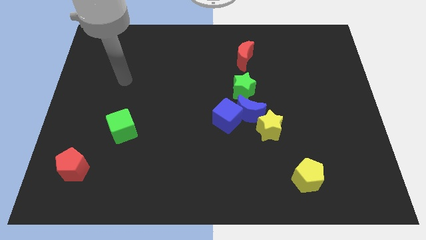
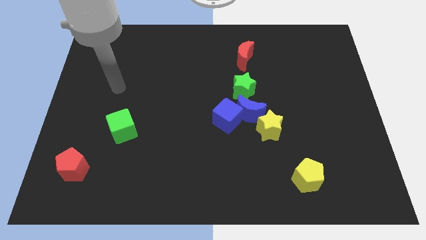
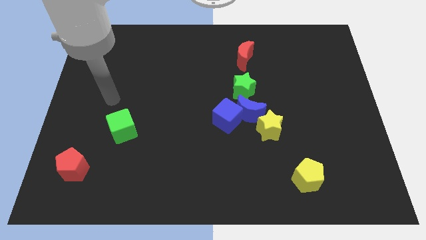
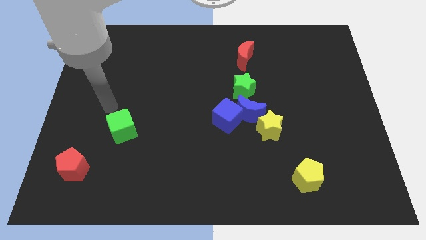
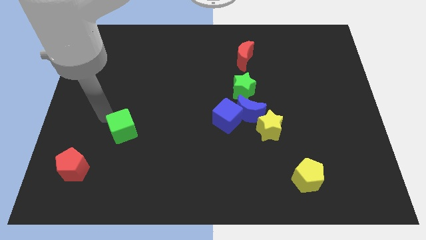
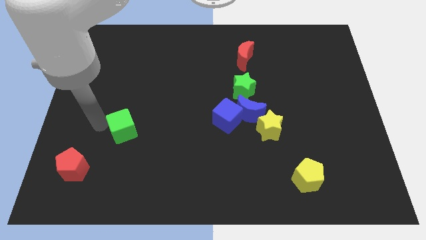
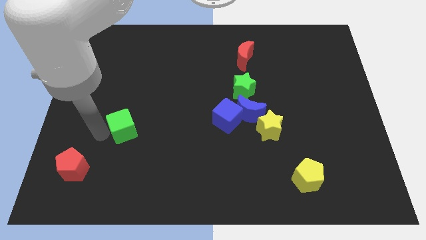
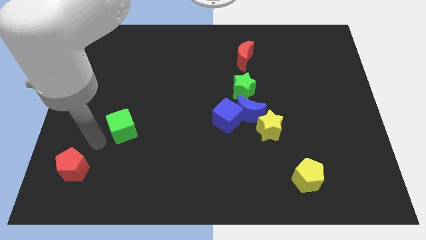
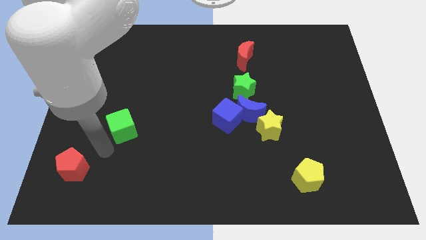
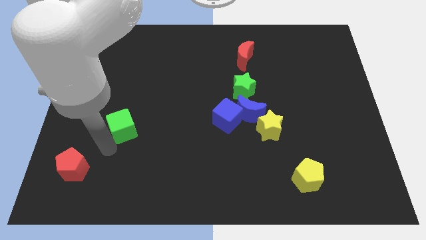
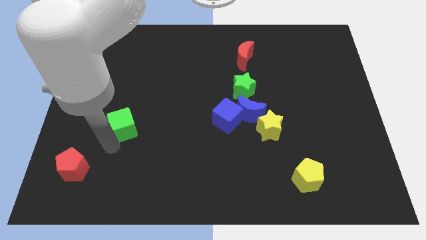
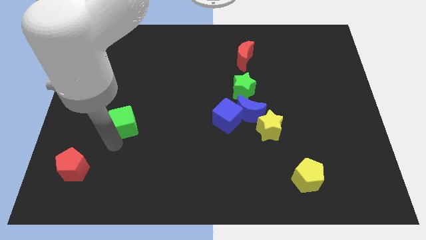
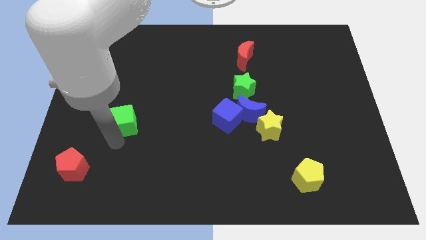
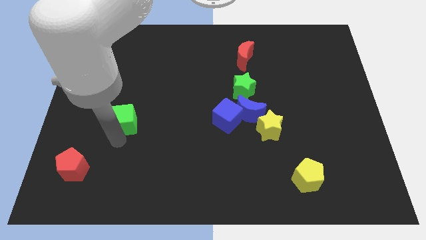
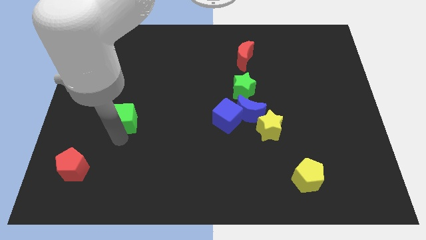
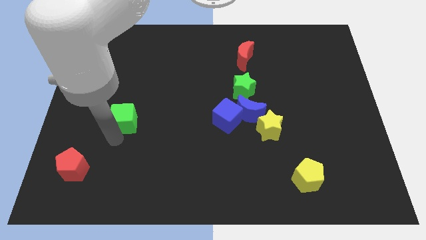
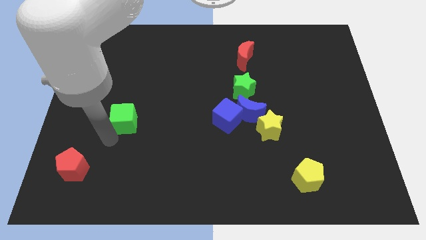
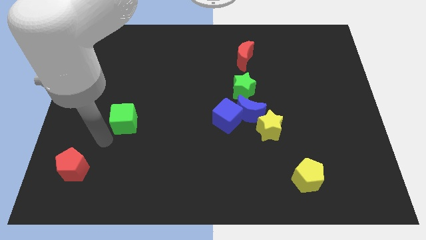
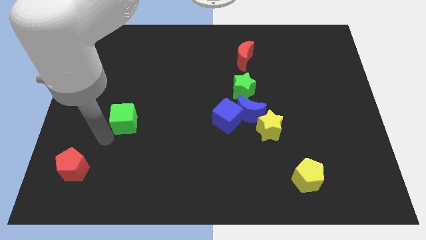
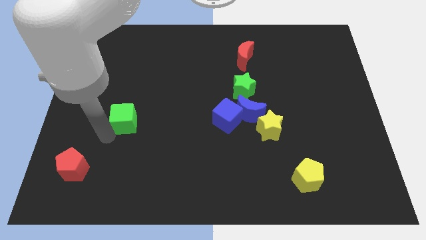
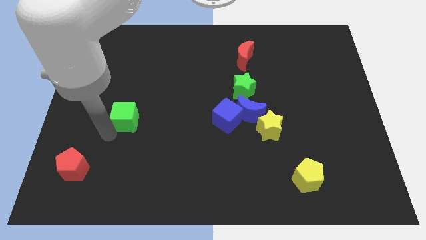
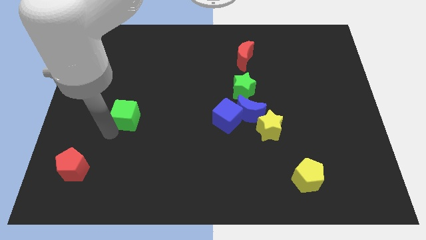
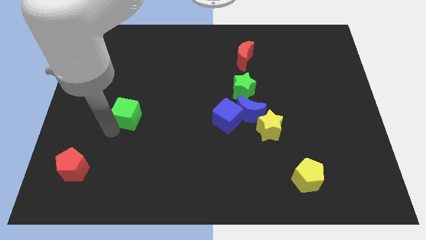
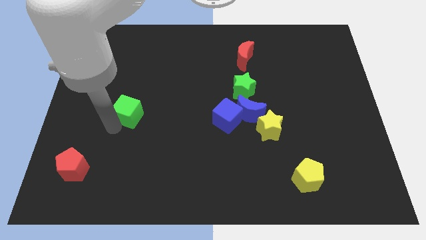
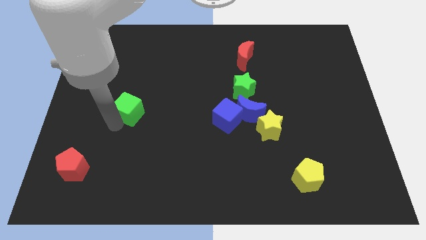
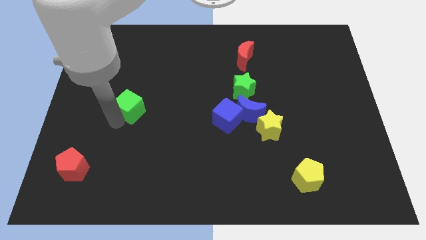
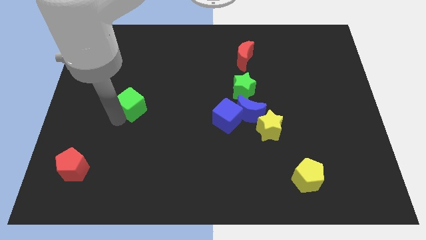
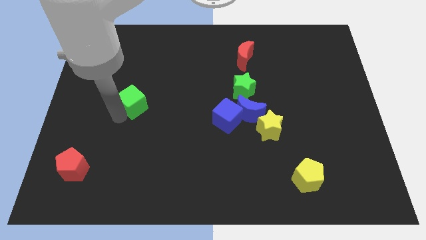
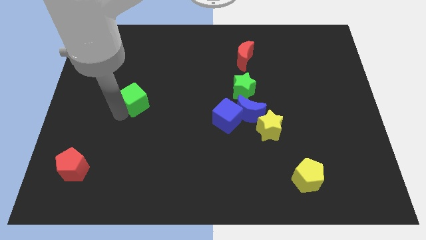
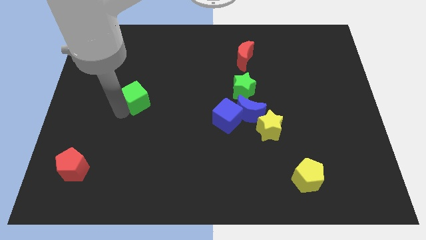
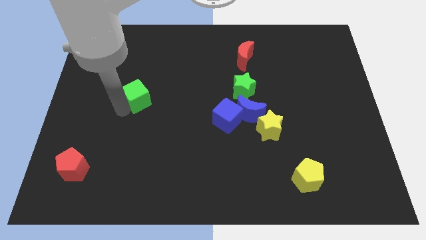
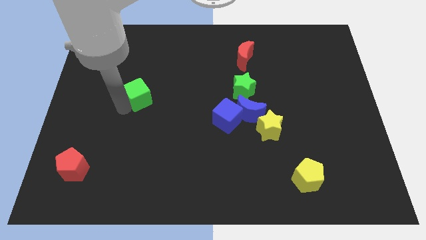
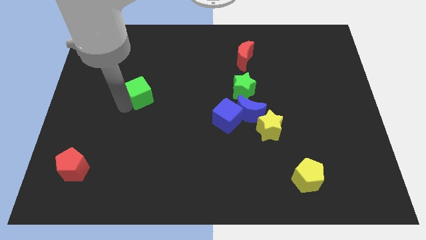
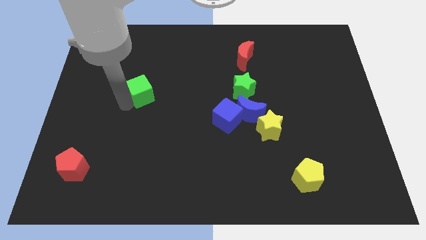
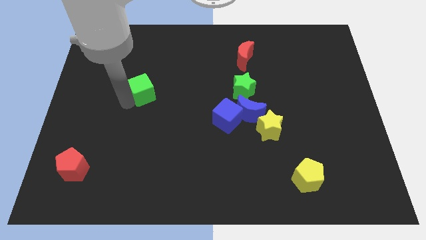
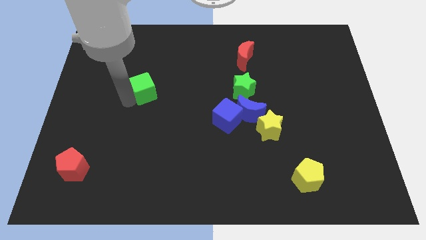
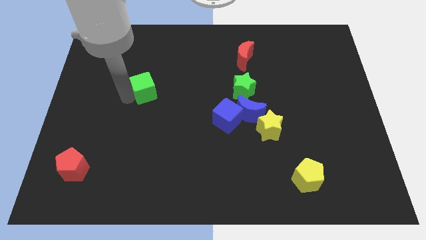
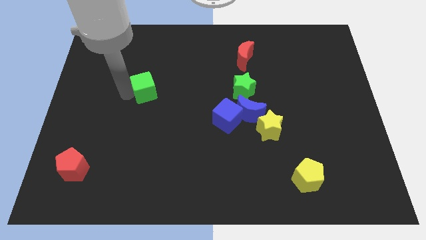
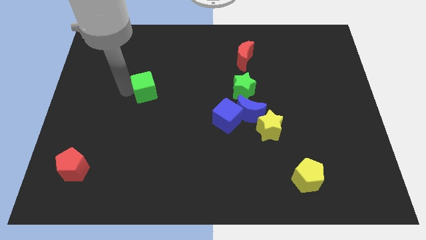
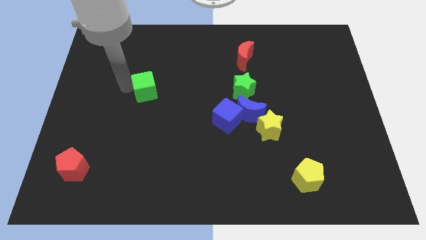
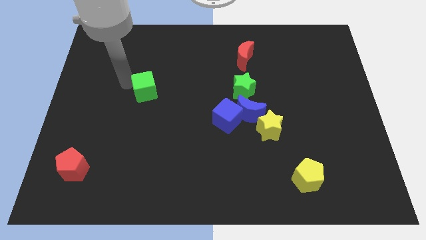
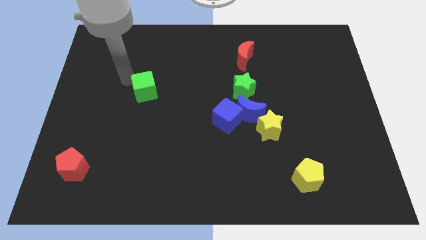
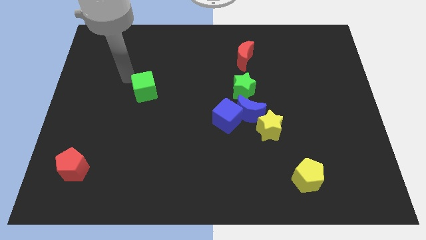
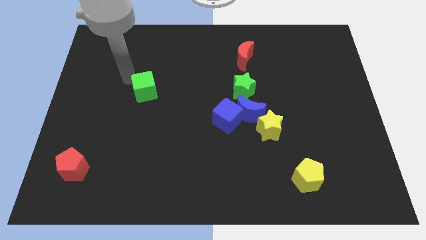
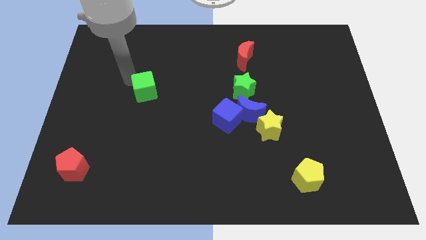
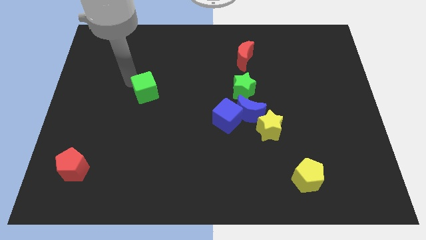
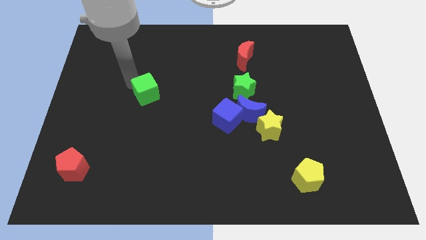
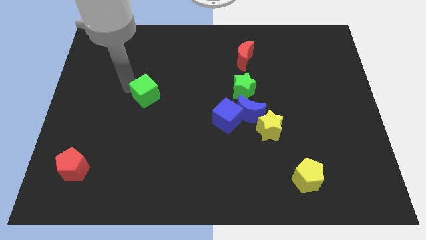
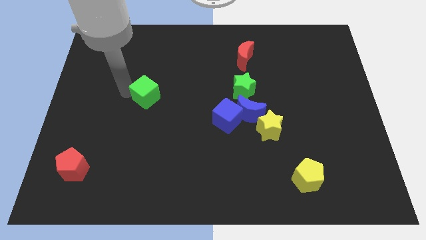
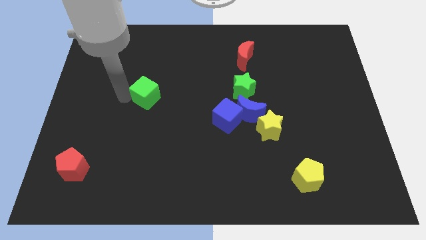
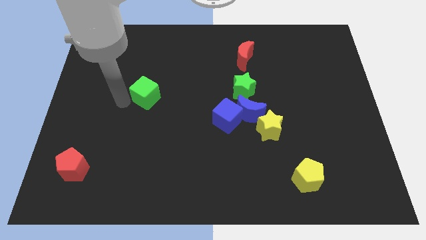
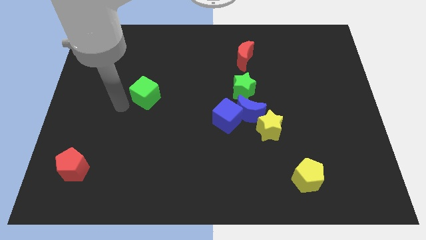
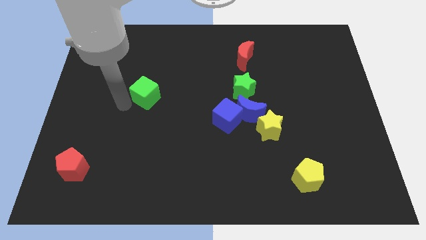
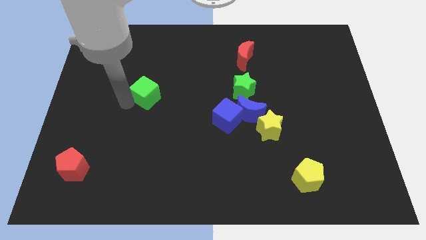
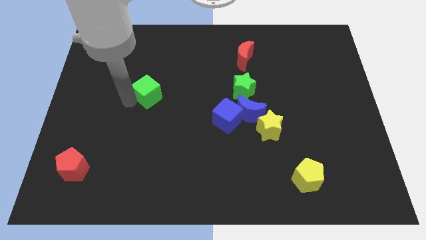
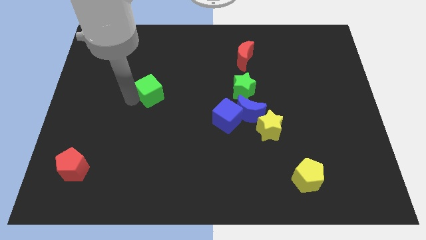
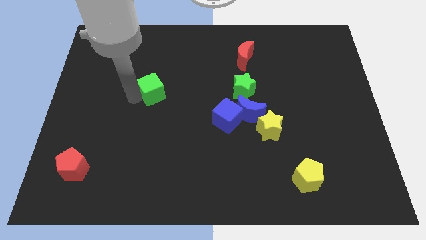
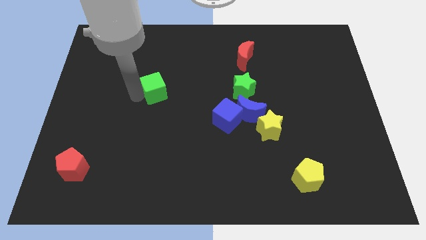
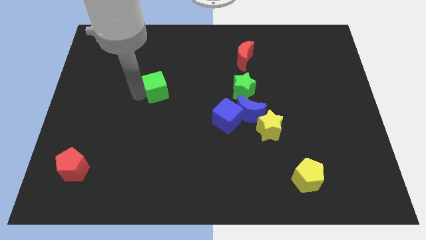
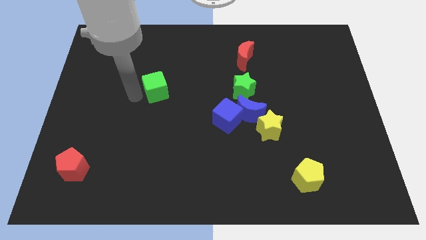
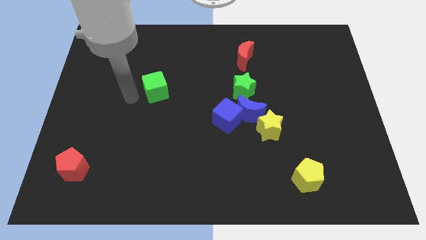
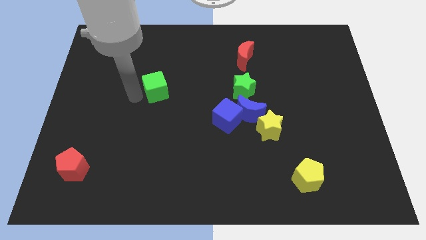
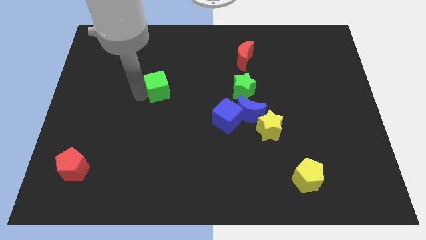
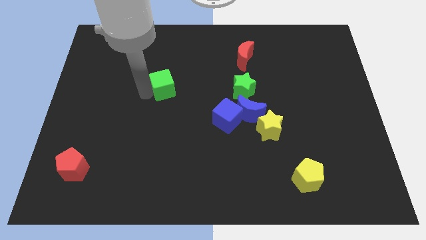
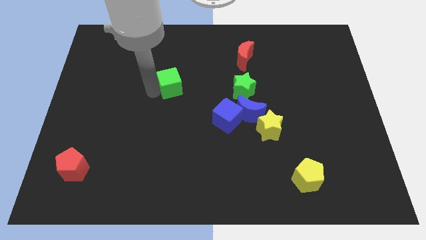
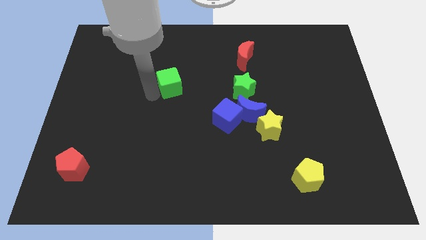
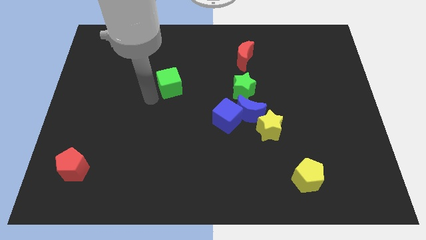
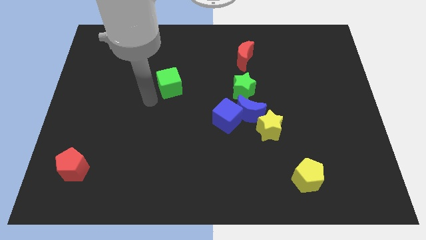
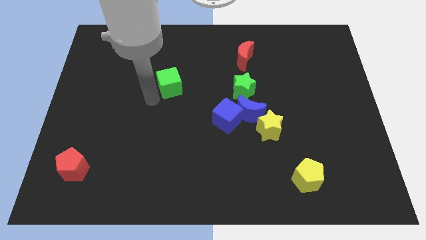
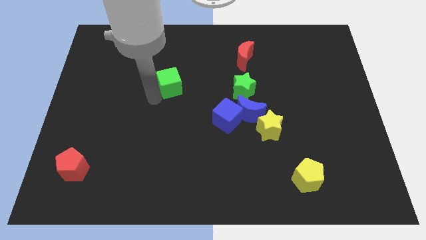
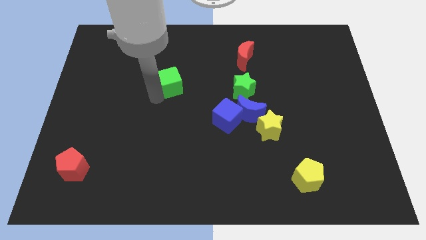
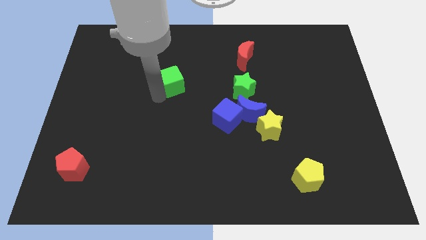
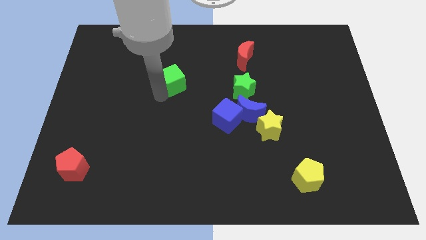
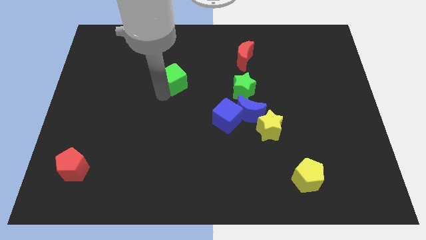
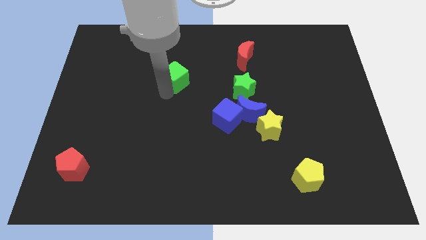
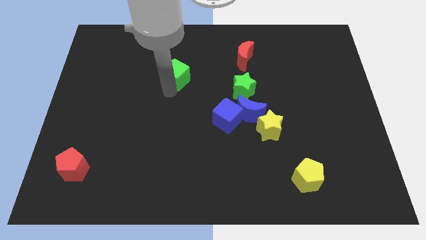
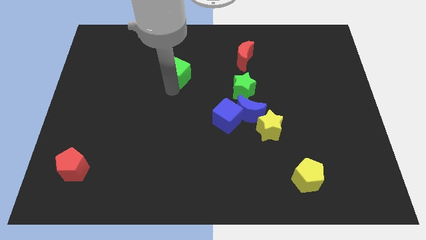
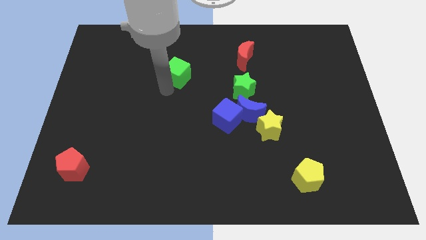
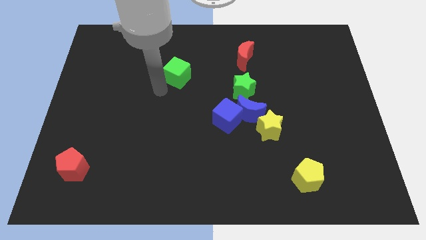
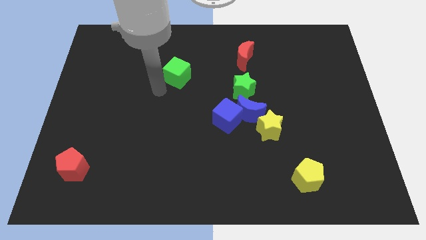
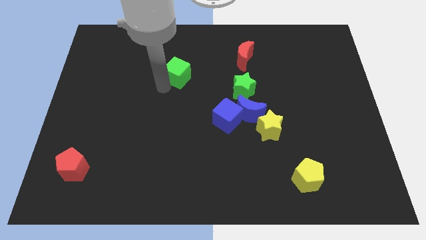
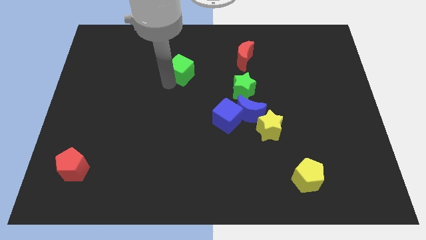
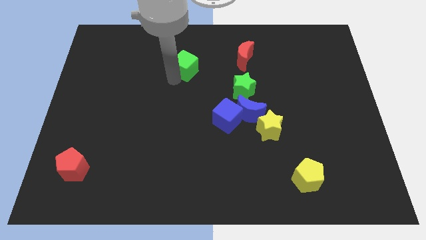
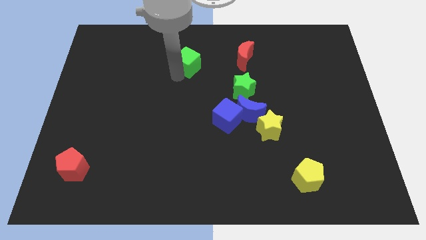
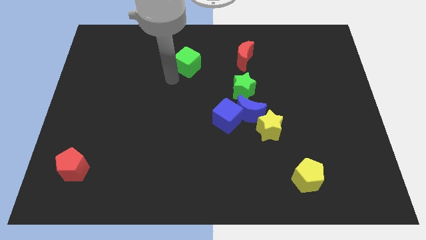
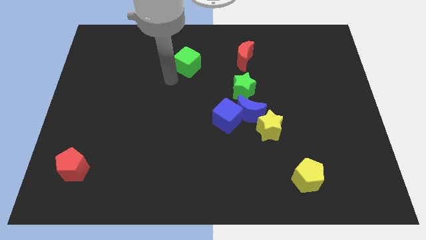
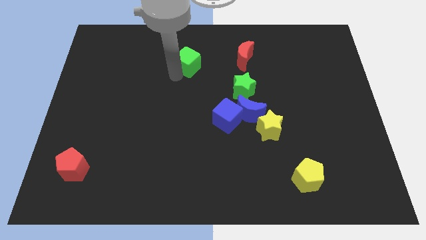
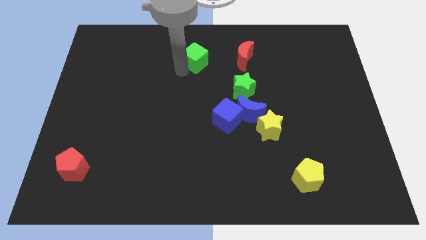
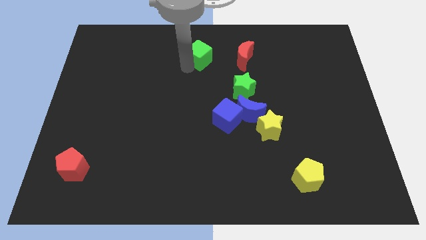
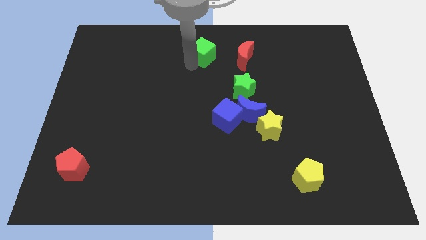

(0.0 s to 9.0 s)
move the green cube to the top side
